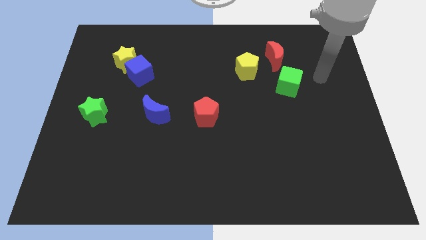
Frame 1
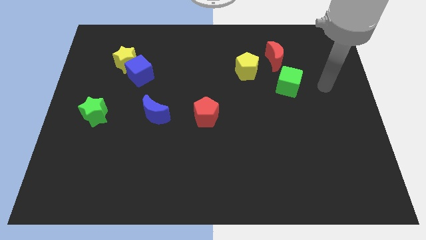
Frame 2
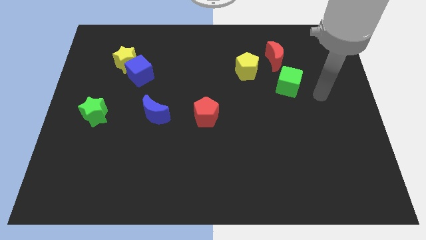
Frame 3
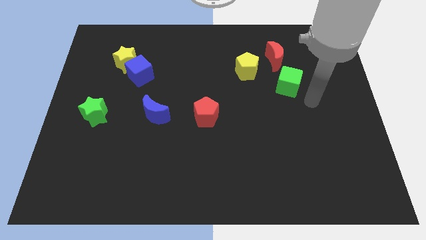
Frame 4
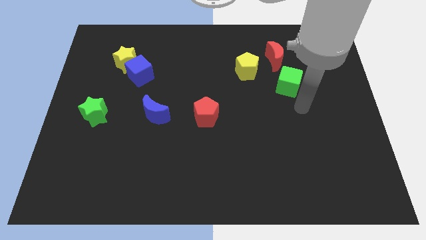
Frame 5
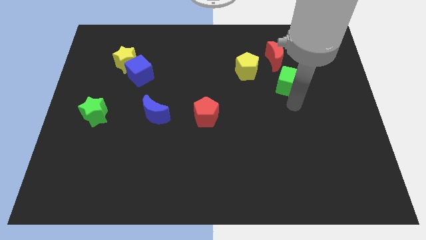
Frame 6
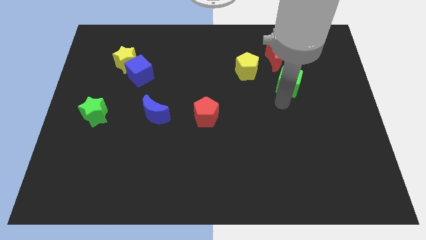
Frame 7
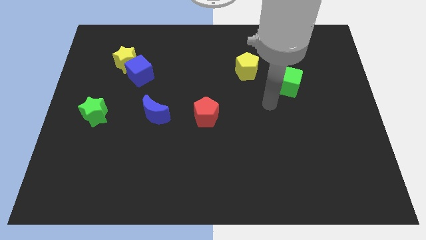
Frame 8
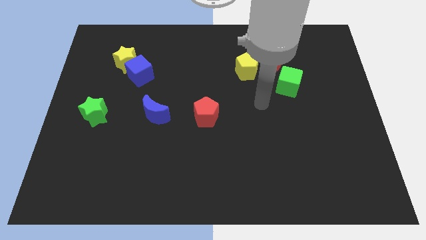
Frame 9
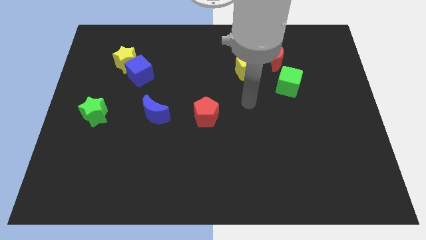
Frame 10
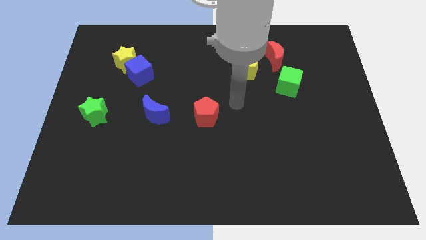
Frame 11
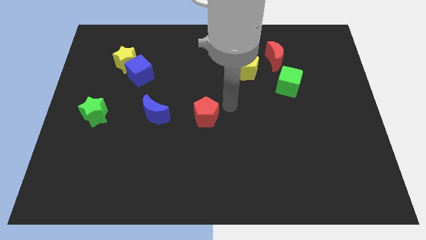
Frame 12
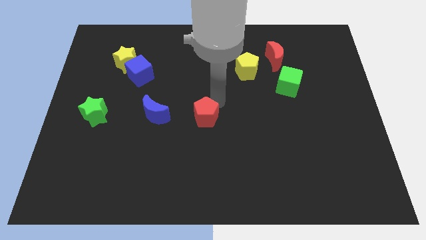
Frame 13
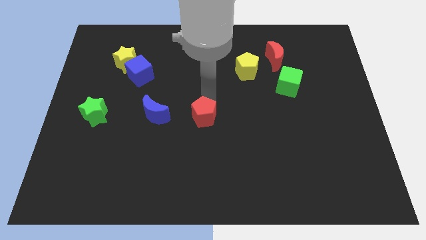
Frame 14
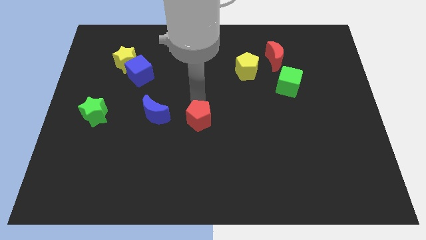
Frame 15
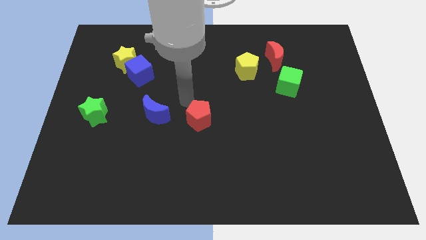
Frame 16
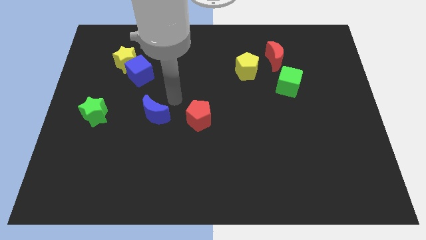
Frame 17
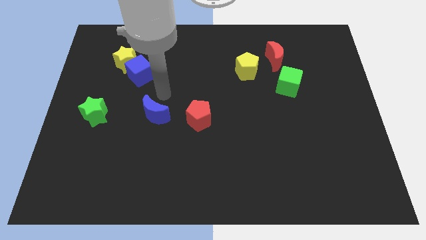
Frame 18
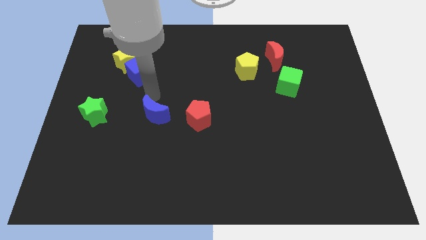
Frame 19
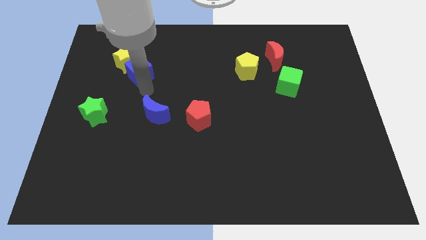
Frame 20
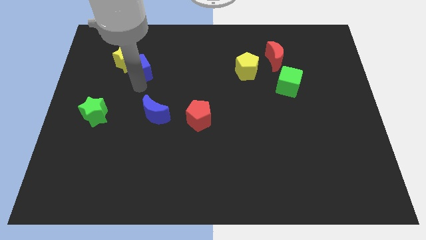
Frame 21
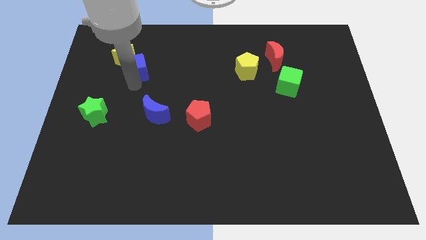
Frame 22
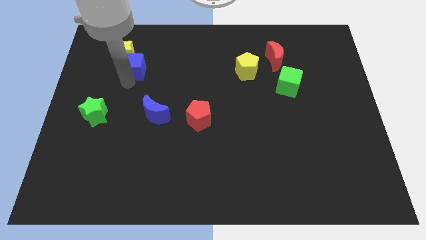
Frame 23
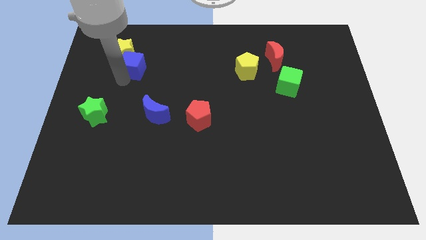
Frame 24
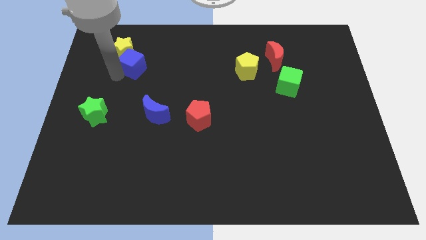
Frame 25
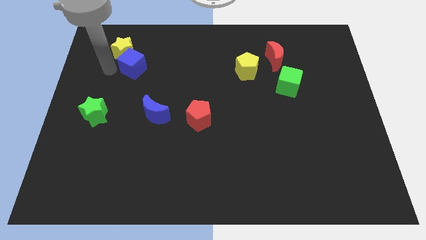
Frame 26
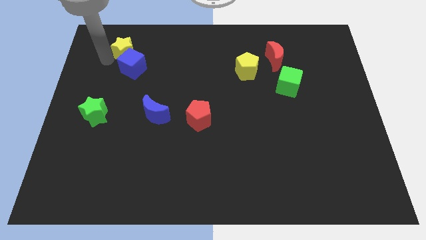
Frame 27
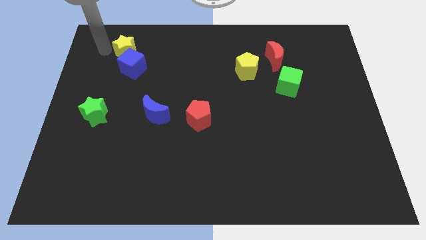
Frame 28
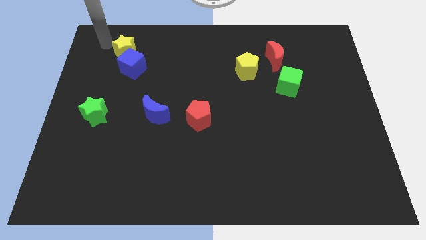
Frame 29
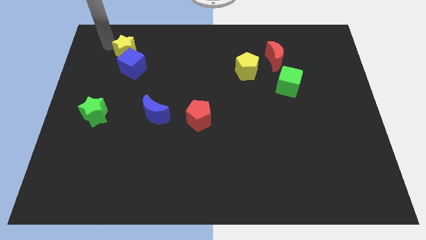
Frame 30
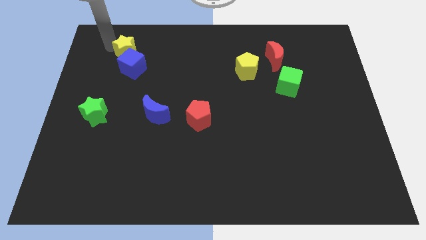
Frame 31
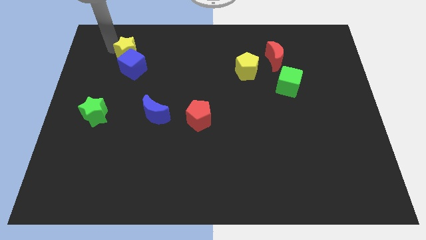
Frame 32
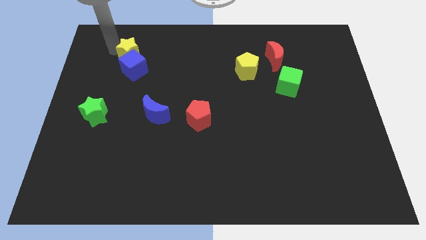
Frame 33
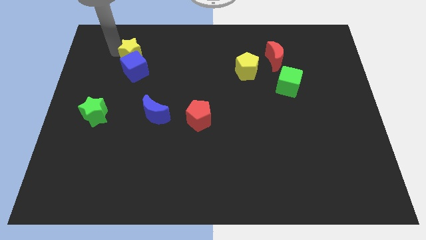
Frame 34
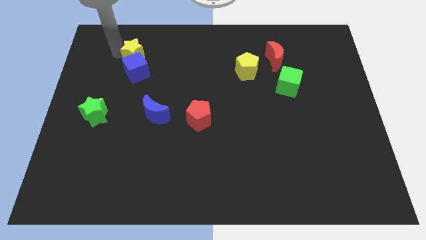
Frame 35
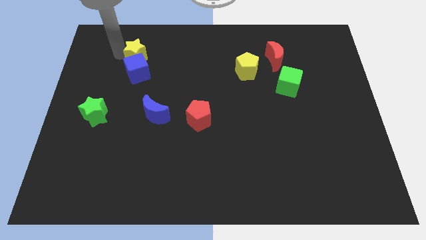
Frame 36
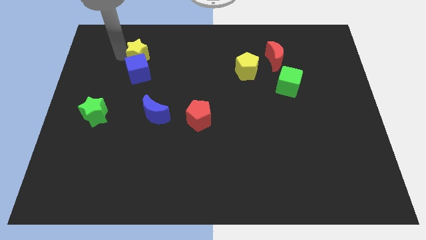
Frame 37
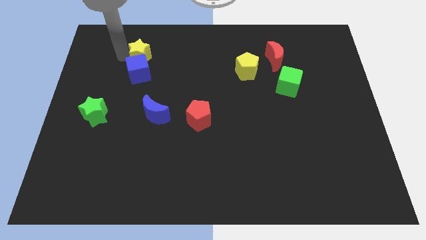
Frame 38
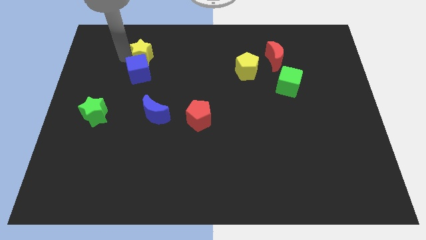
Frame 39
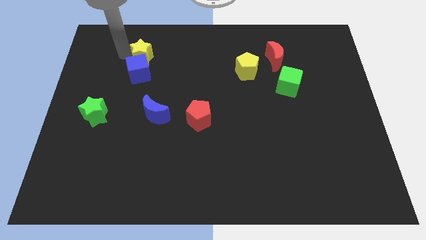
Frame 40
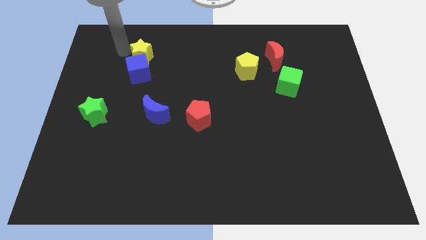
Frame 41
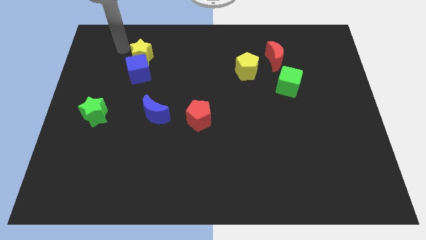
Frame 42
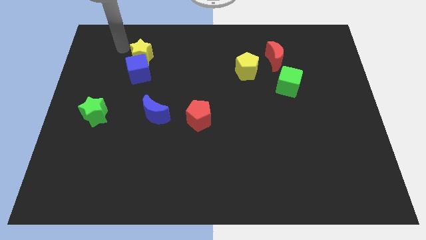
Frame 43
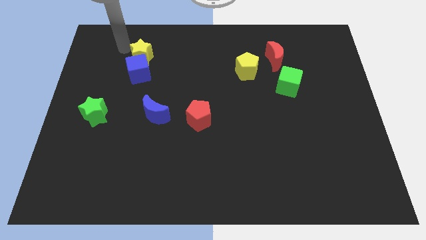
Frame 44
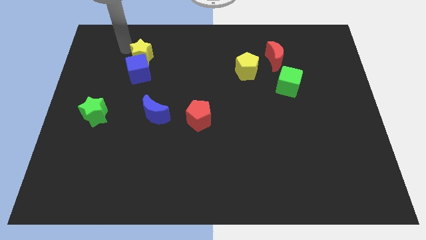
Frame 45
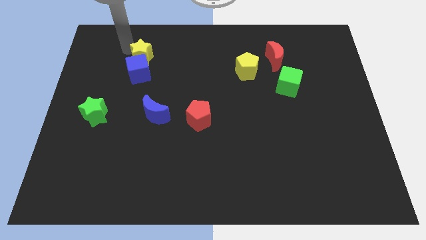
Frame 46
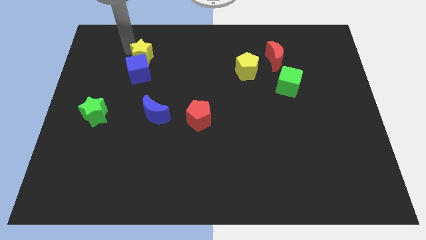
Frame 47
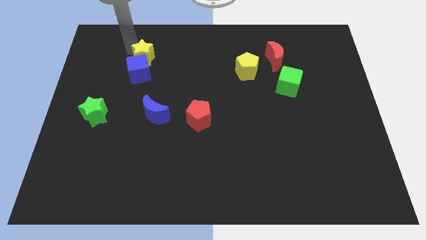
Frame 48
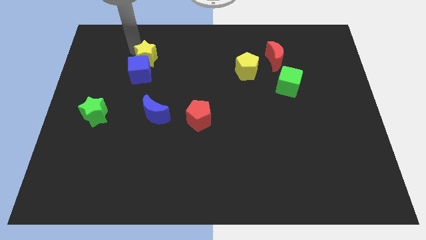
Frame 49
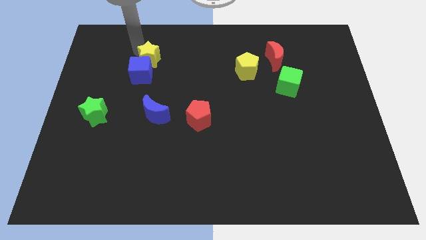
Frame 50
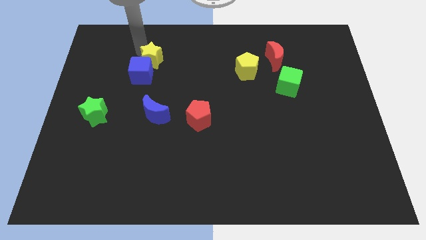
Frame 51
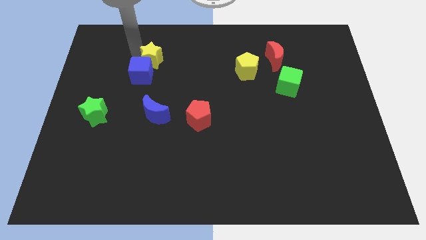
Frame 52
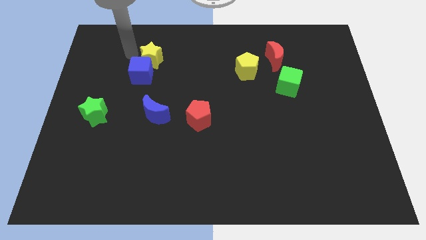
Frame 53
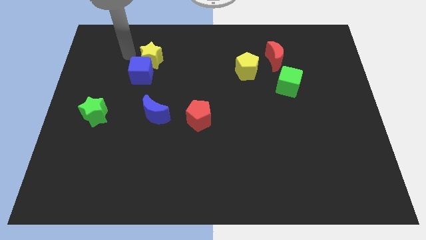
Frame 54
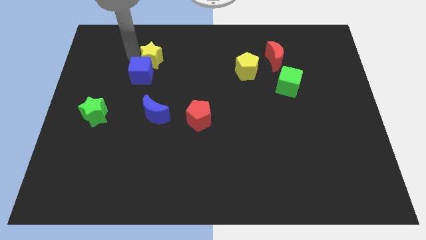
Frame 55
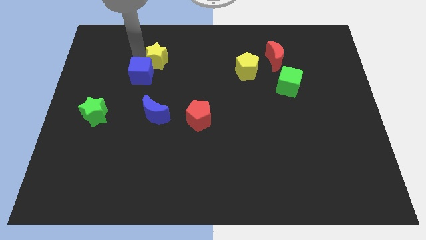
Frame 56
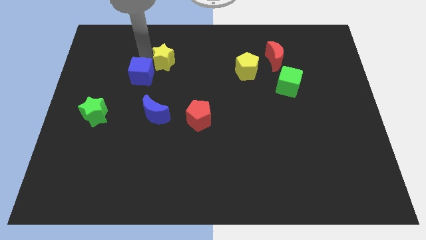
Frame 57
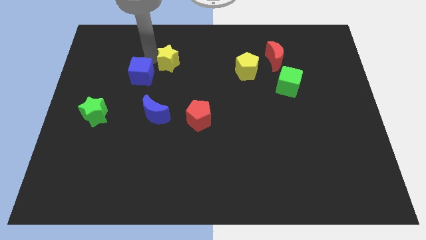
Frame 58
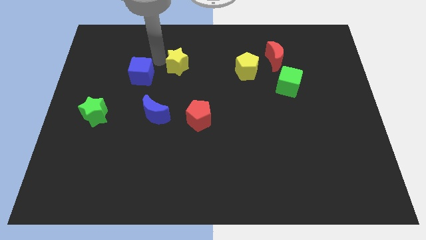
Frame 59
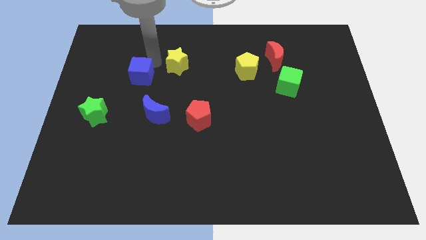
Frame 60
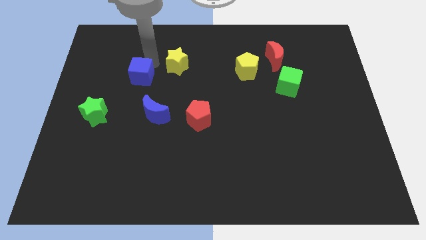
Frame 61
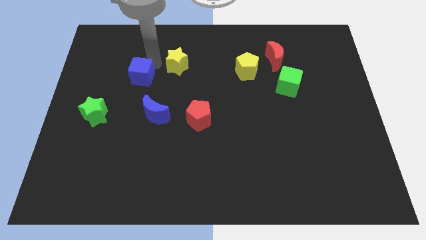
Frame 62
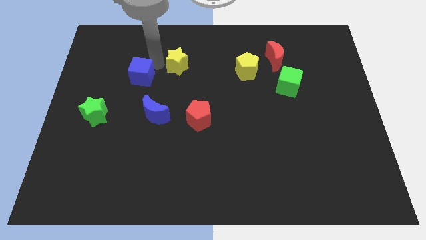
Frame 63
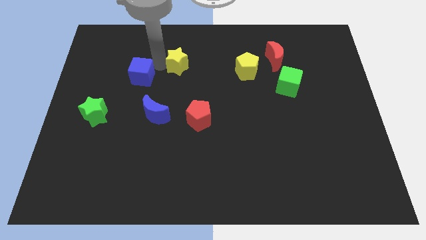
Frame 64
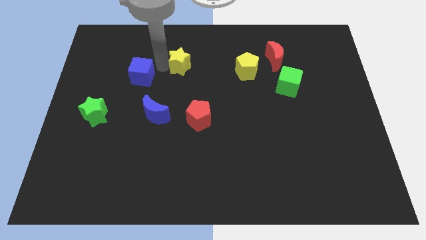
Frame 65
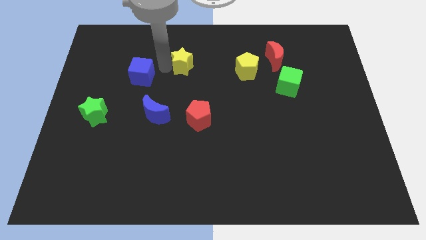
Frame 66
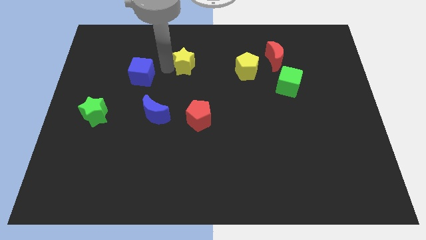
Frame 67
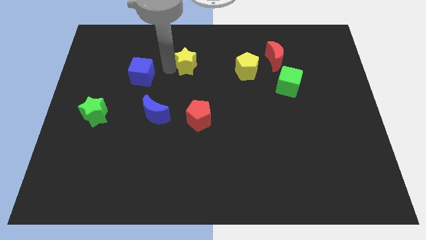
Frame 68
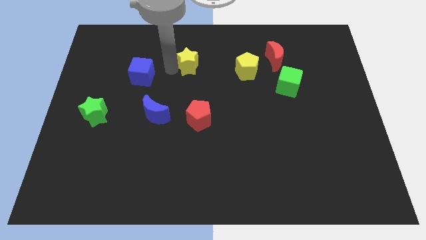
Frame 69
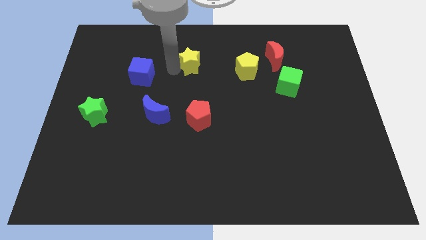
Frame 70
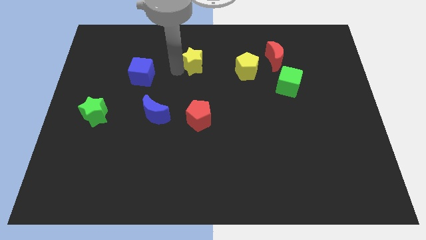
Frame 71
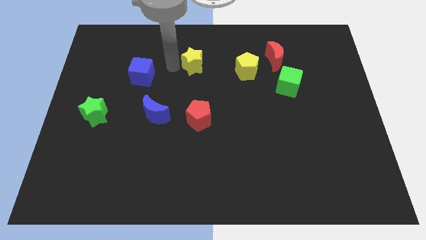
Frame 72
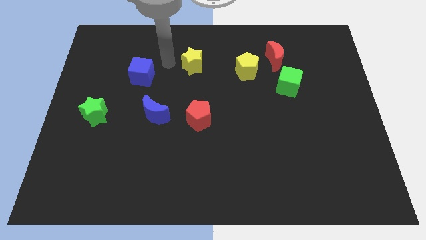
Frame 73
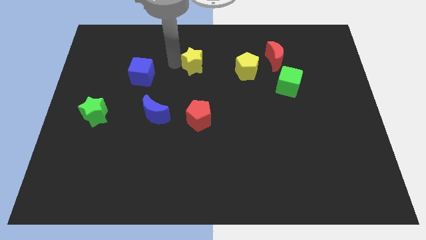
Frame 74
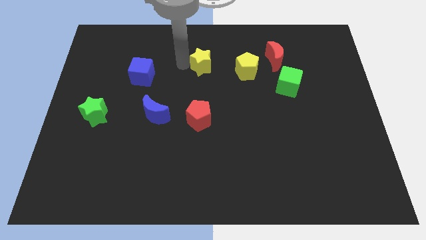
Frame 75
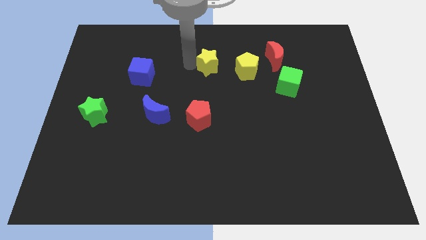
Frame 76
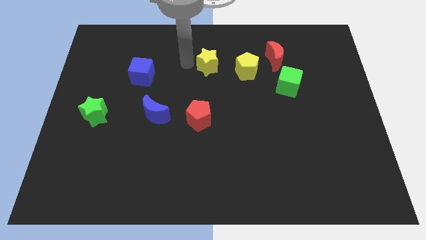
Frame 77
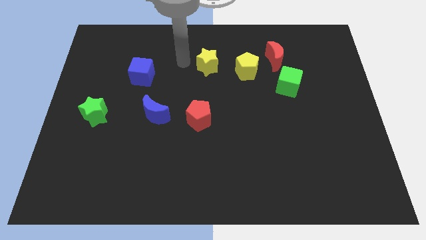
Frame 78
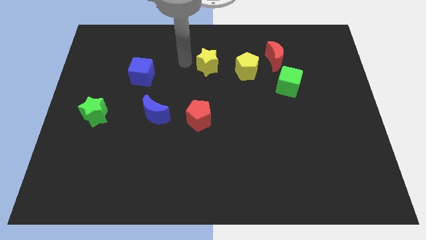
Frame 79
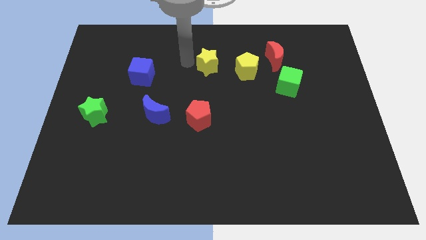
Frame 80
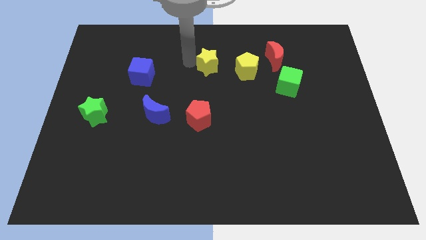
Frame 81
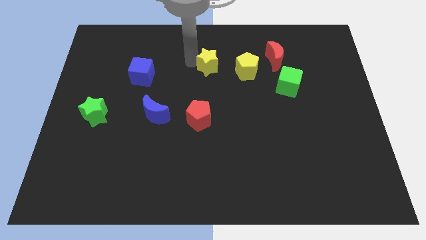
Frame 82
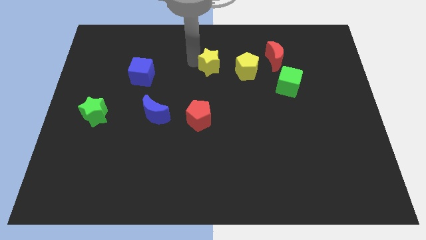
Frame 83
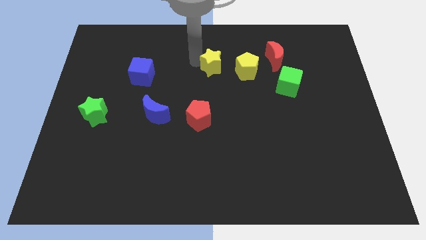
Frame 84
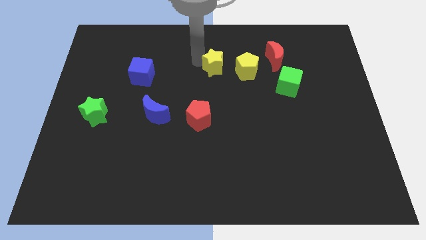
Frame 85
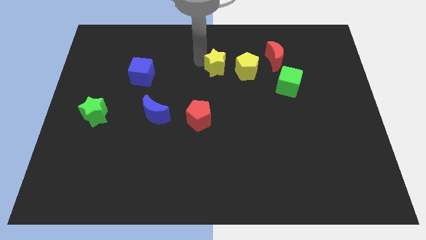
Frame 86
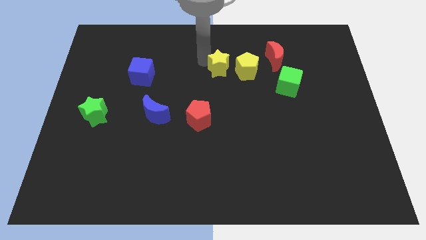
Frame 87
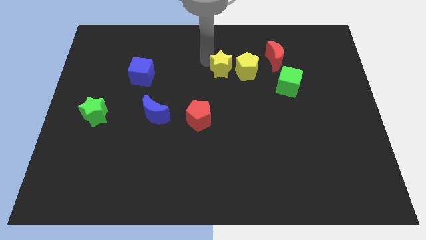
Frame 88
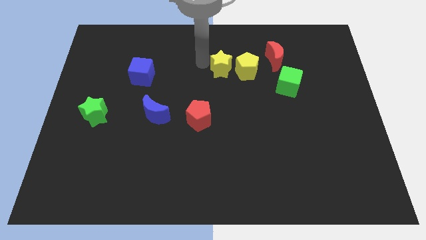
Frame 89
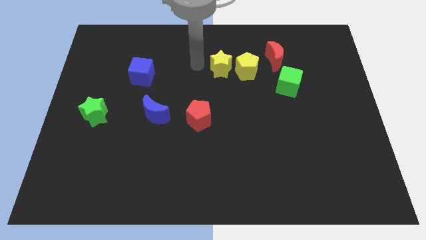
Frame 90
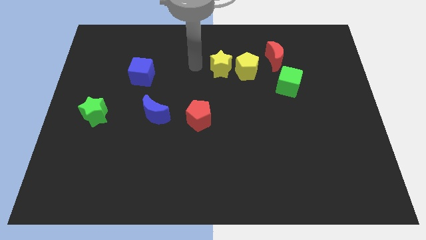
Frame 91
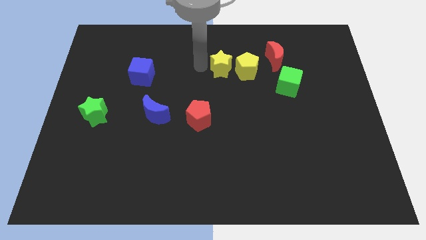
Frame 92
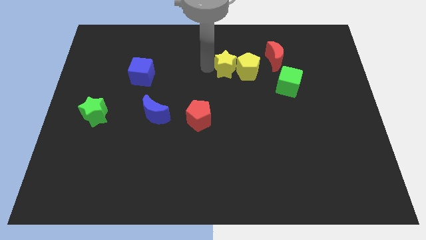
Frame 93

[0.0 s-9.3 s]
move the yellow star close to the yellow pentagon
